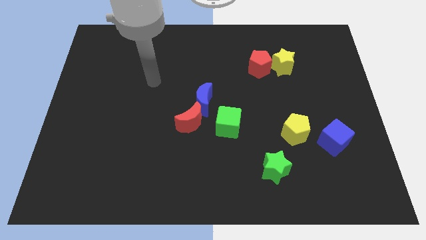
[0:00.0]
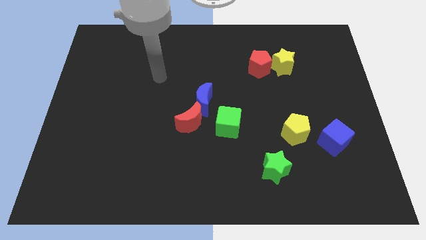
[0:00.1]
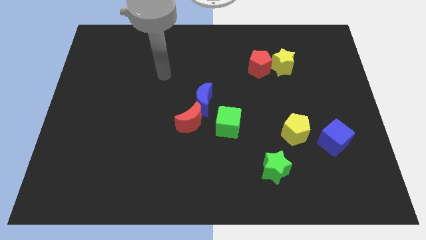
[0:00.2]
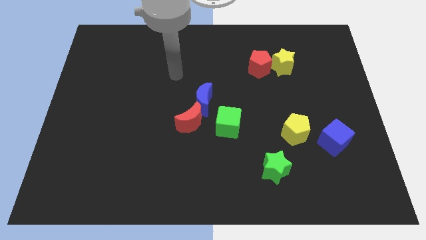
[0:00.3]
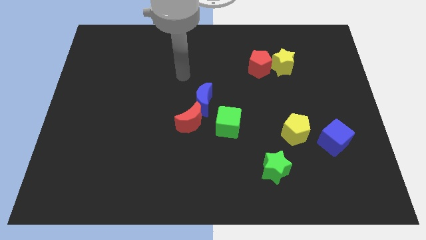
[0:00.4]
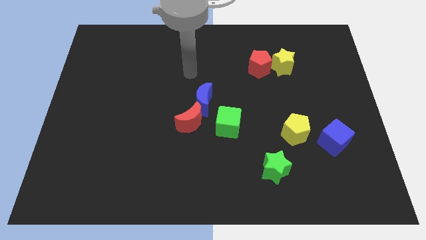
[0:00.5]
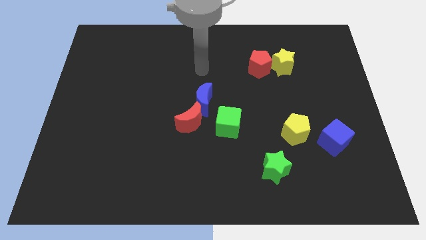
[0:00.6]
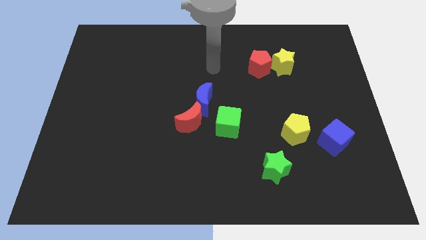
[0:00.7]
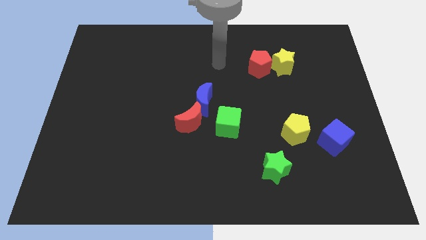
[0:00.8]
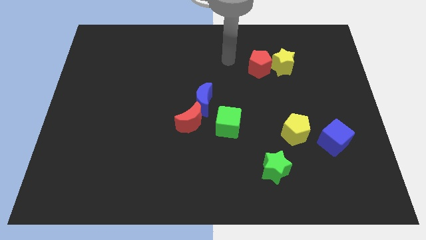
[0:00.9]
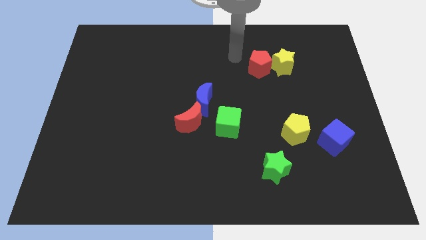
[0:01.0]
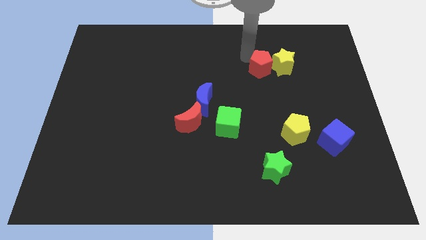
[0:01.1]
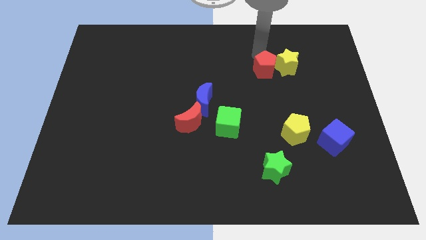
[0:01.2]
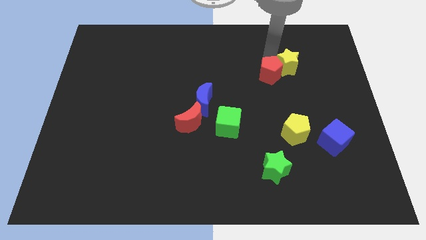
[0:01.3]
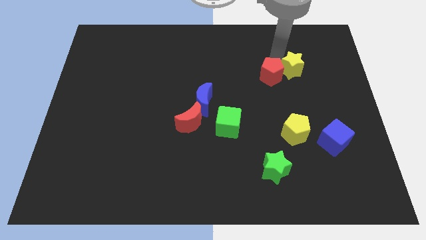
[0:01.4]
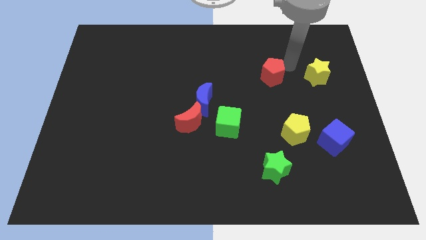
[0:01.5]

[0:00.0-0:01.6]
pull the red pentagon apart from the yellow star

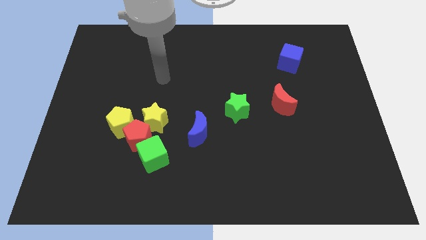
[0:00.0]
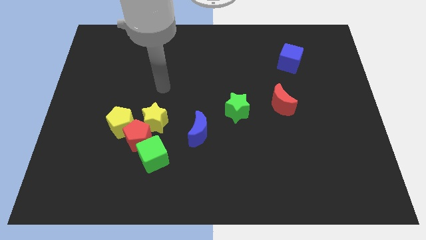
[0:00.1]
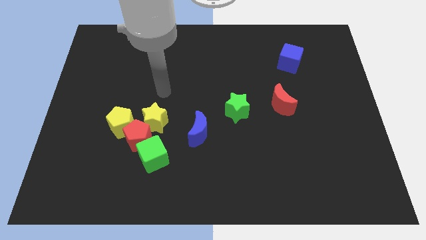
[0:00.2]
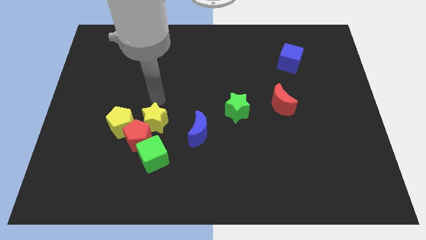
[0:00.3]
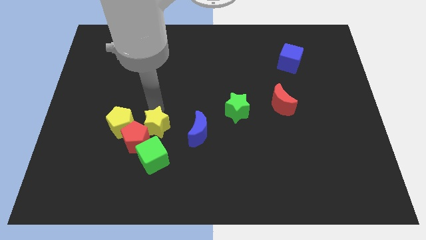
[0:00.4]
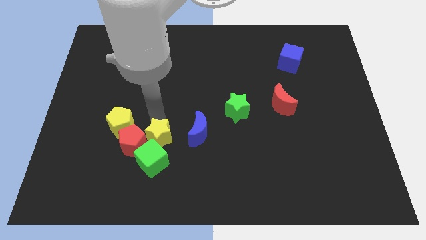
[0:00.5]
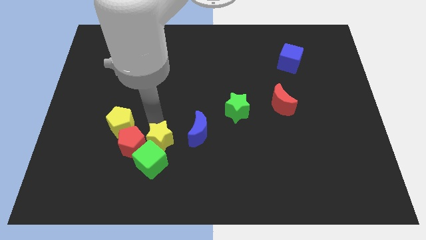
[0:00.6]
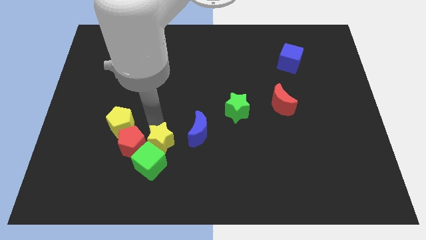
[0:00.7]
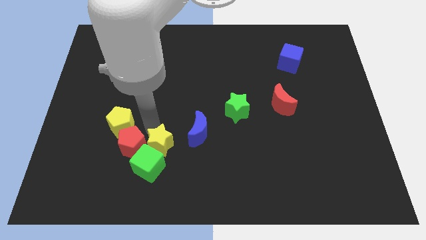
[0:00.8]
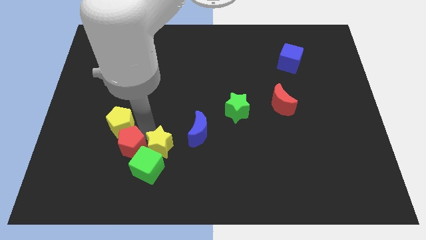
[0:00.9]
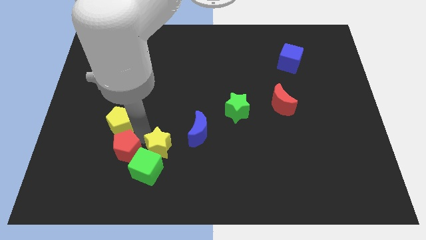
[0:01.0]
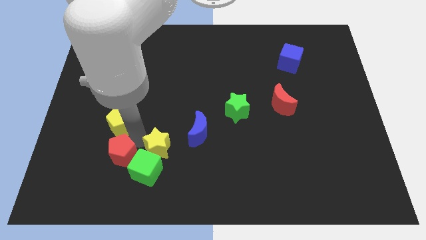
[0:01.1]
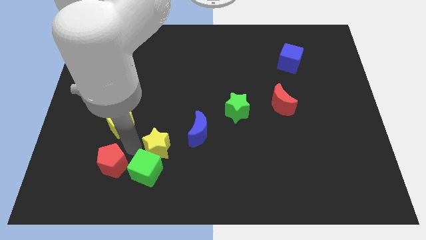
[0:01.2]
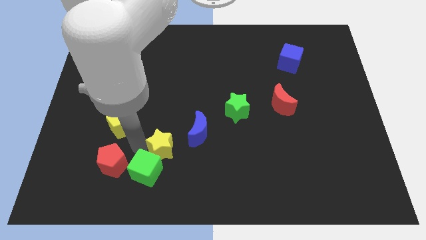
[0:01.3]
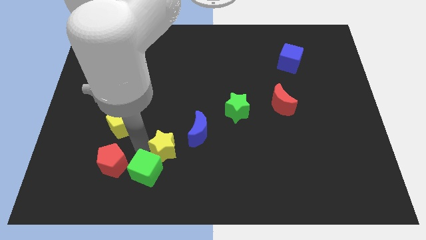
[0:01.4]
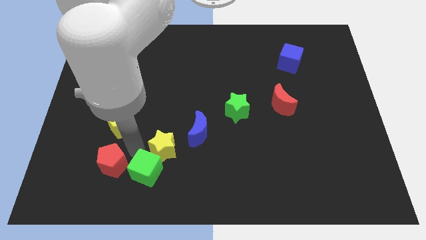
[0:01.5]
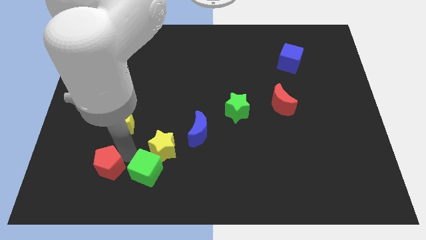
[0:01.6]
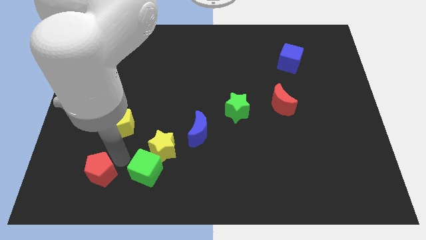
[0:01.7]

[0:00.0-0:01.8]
move the red pentagon away from the yellow pentagon, yellow star, and green cube

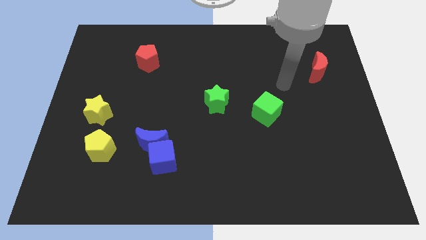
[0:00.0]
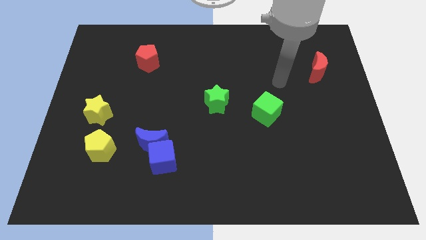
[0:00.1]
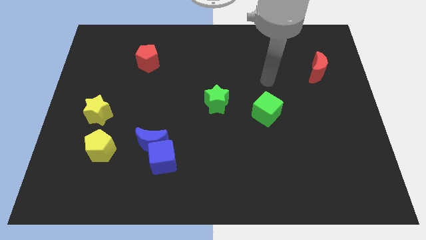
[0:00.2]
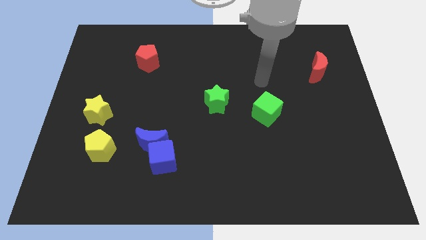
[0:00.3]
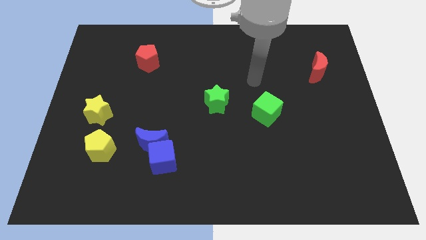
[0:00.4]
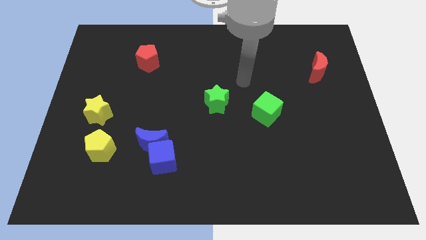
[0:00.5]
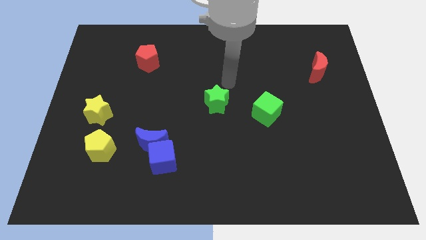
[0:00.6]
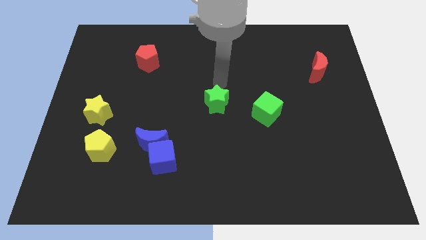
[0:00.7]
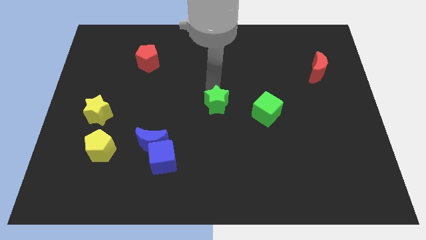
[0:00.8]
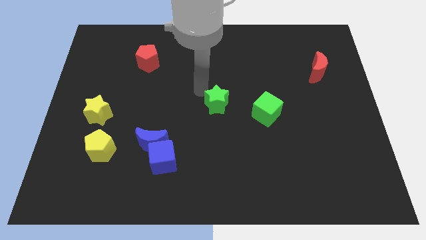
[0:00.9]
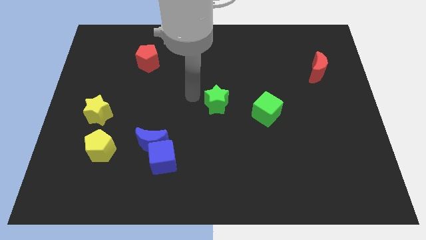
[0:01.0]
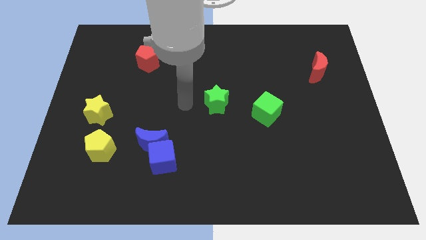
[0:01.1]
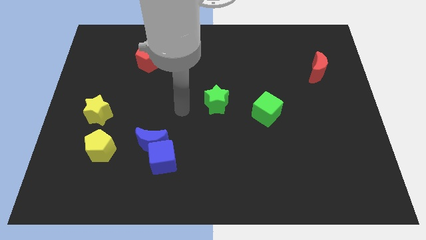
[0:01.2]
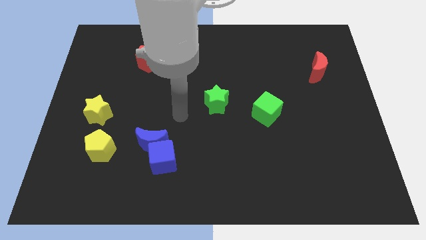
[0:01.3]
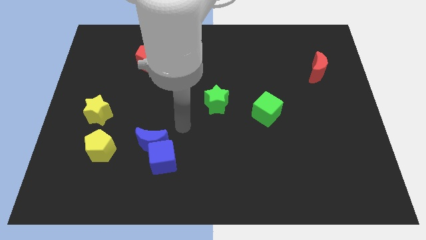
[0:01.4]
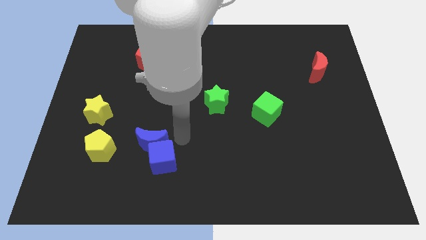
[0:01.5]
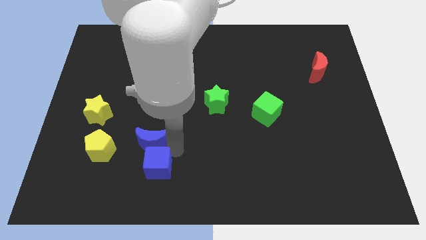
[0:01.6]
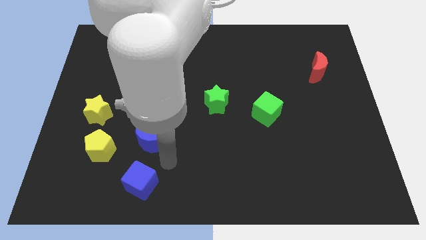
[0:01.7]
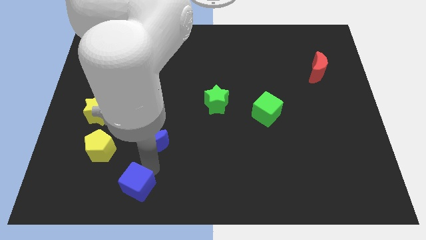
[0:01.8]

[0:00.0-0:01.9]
separate the blue moon from the blue cube

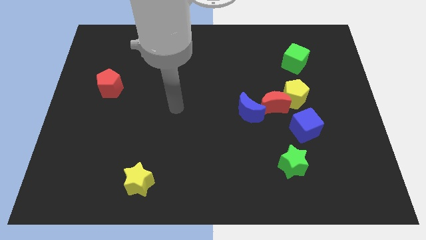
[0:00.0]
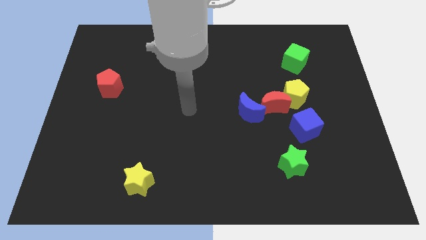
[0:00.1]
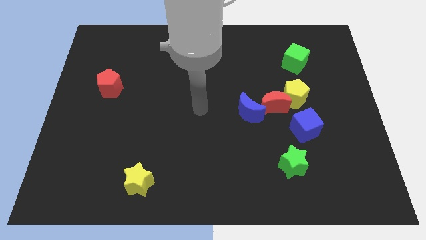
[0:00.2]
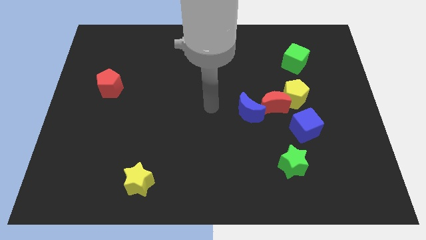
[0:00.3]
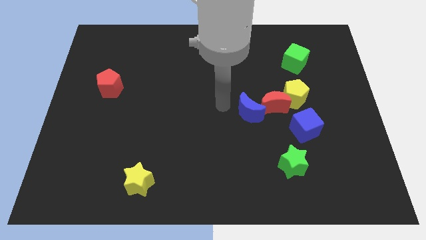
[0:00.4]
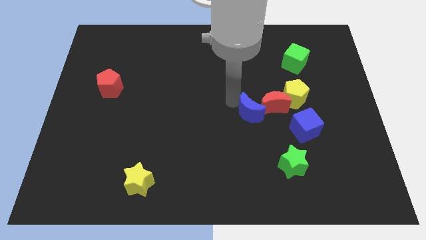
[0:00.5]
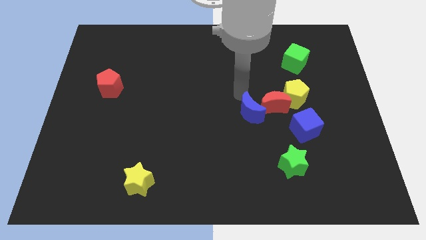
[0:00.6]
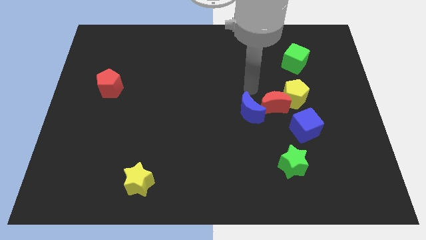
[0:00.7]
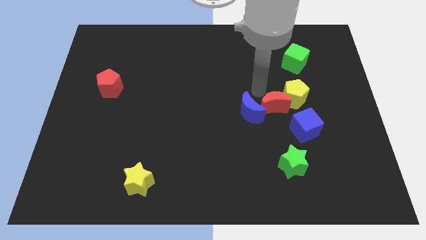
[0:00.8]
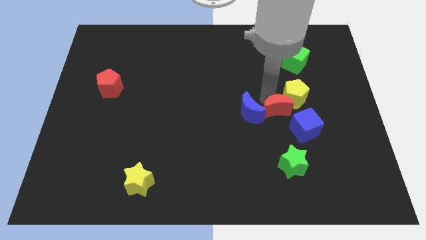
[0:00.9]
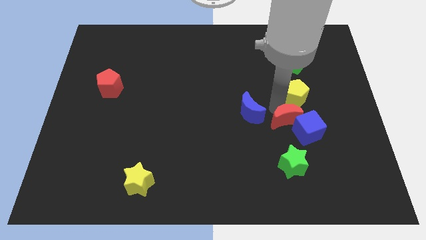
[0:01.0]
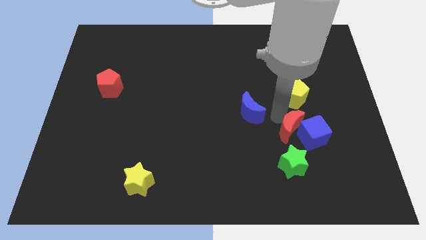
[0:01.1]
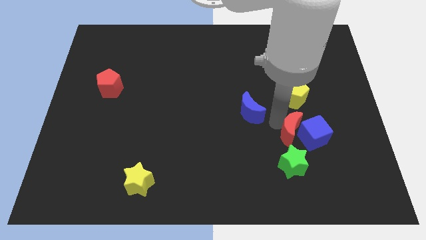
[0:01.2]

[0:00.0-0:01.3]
move the blue moon away from the red moon

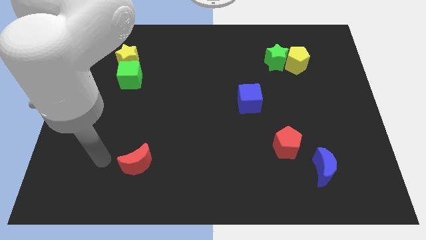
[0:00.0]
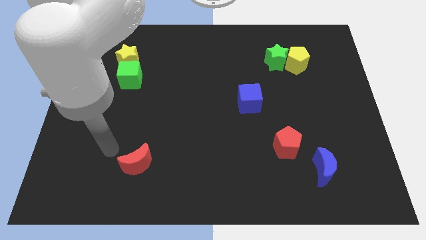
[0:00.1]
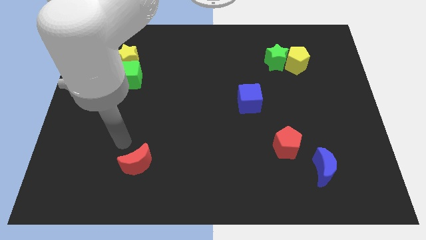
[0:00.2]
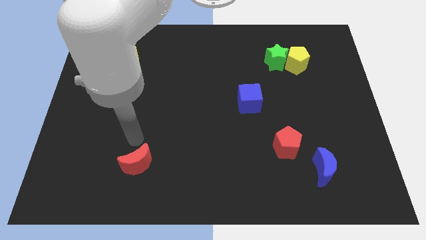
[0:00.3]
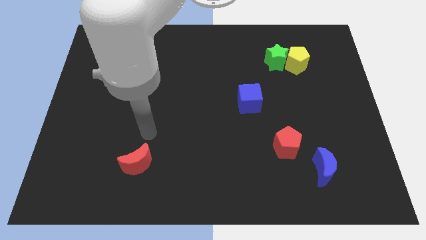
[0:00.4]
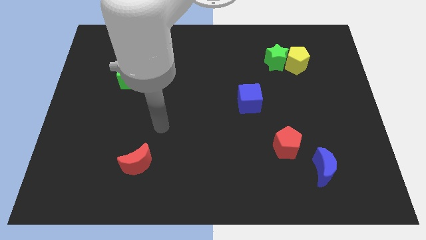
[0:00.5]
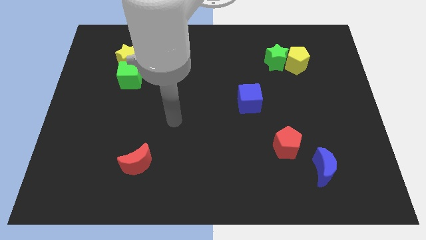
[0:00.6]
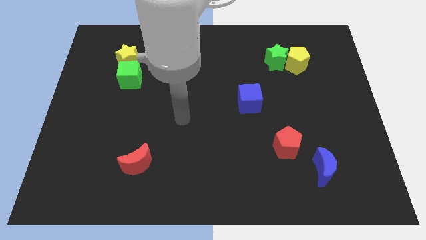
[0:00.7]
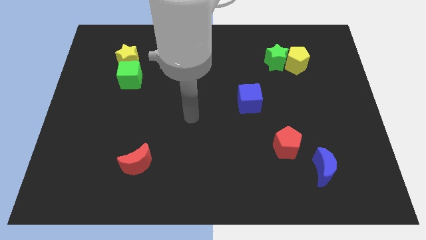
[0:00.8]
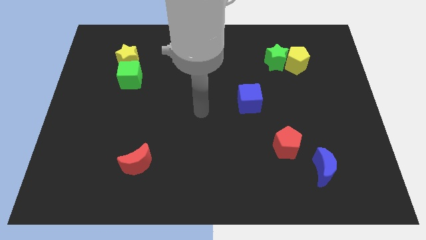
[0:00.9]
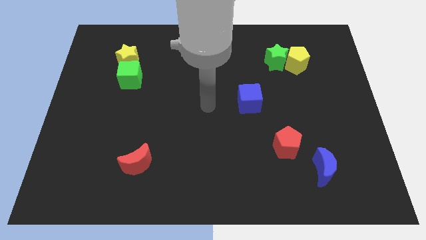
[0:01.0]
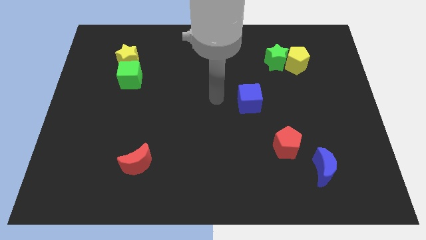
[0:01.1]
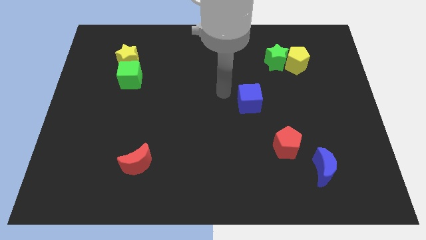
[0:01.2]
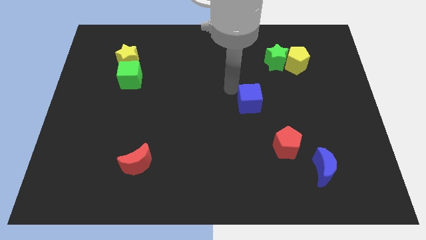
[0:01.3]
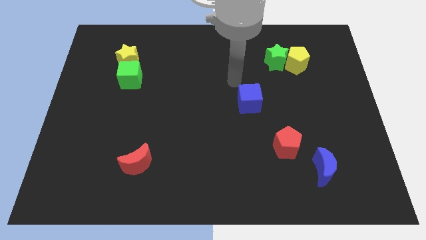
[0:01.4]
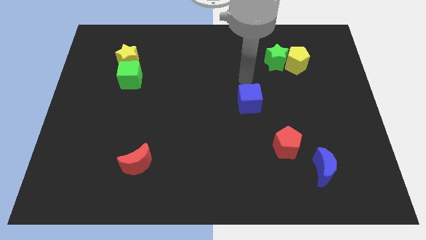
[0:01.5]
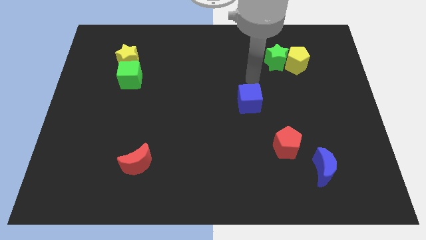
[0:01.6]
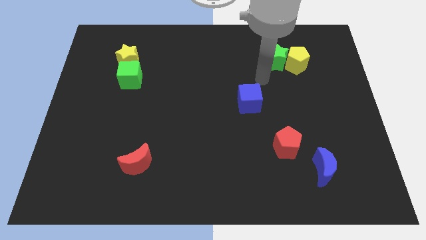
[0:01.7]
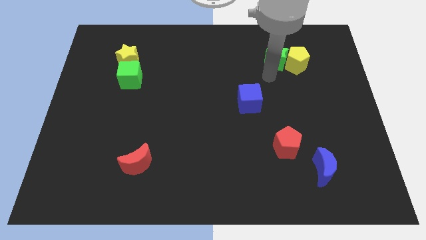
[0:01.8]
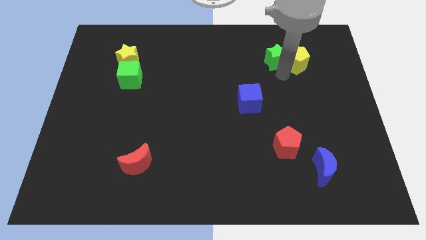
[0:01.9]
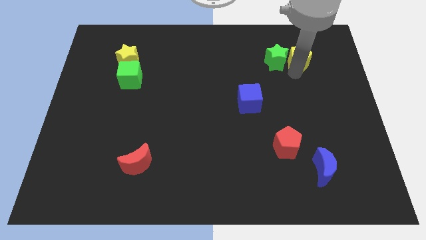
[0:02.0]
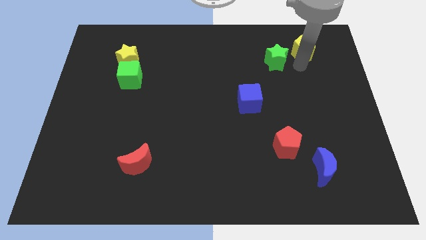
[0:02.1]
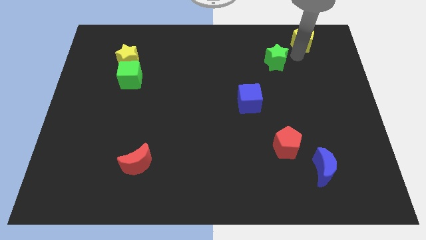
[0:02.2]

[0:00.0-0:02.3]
move the green star away from the yellow pentagon

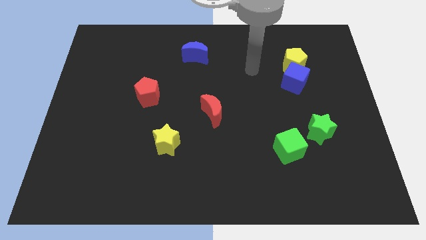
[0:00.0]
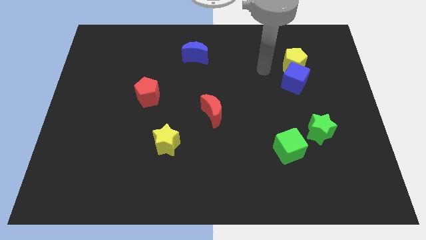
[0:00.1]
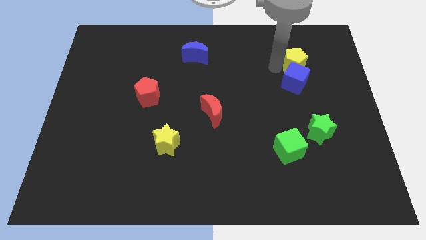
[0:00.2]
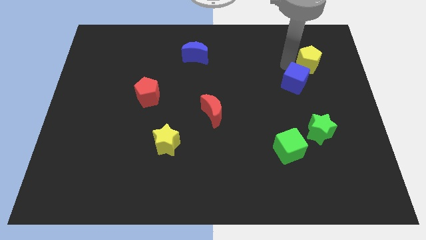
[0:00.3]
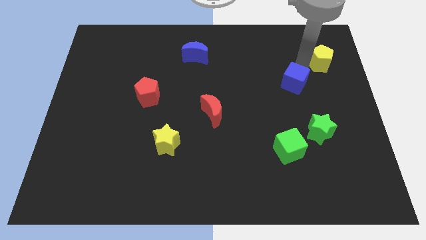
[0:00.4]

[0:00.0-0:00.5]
pull the blue cube apart from the yellow pentagon

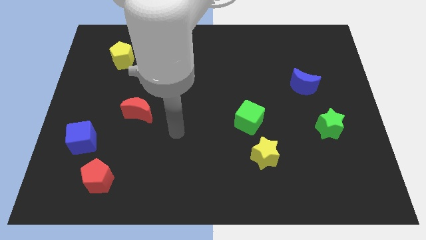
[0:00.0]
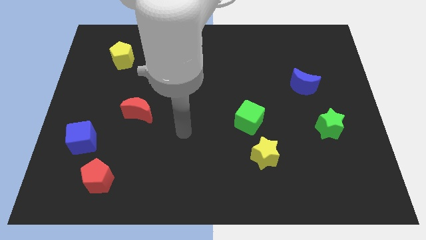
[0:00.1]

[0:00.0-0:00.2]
separate the green cube from the yellow star
